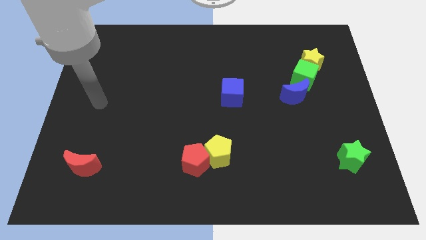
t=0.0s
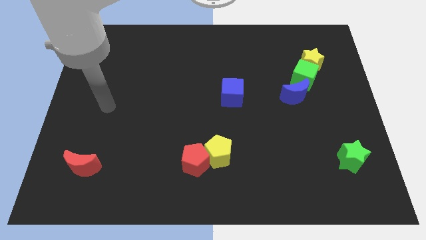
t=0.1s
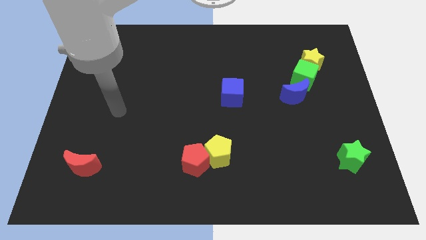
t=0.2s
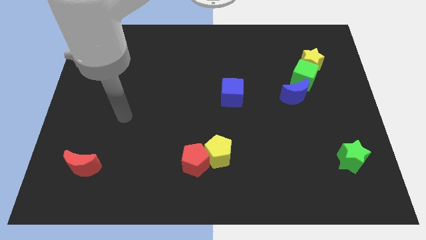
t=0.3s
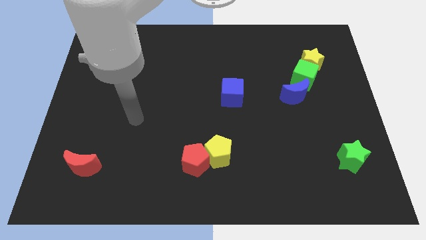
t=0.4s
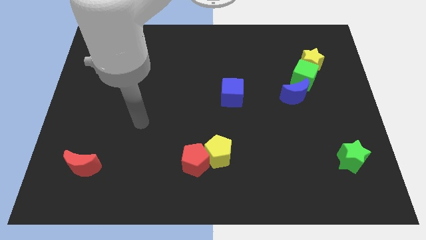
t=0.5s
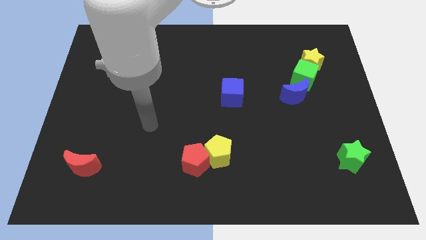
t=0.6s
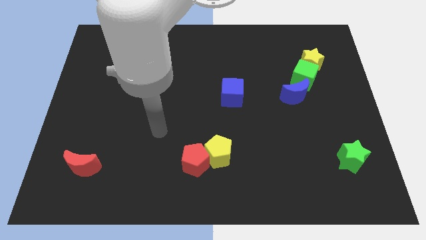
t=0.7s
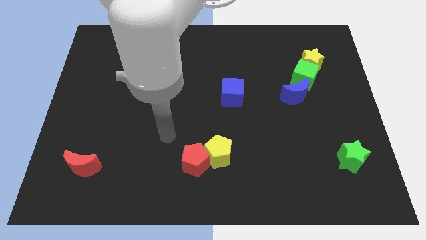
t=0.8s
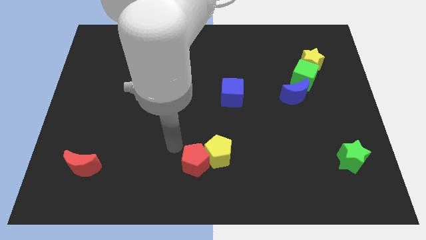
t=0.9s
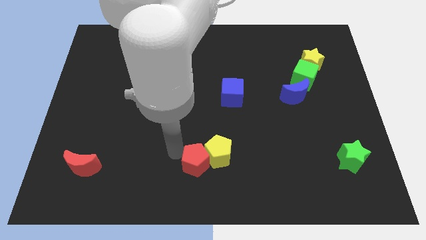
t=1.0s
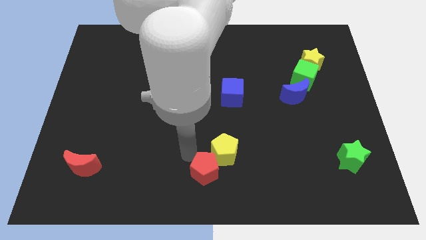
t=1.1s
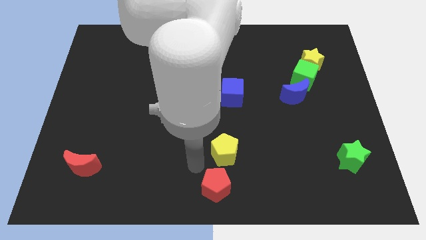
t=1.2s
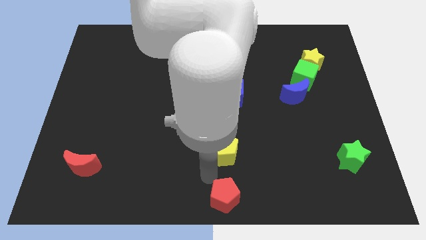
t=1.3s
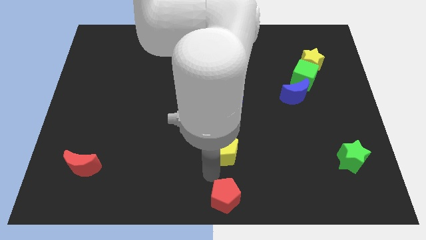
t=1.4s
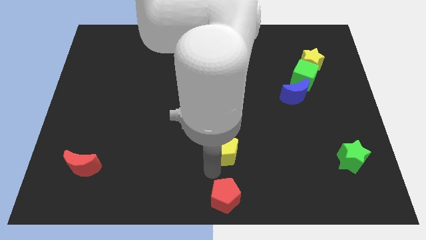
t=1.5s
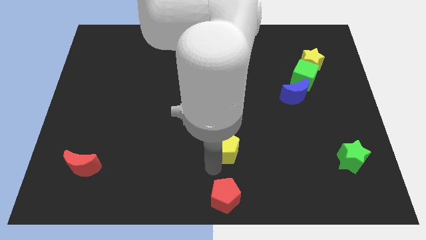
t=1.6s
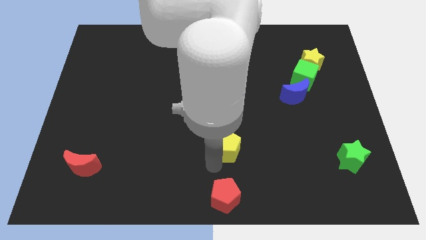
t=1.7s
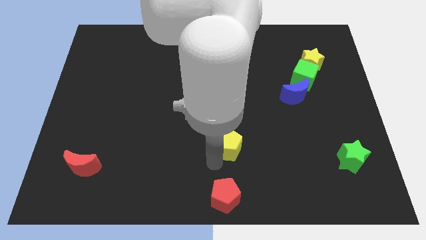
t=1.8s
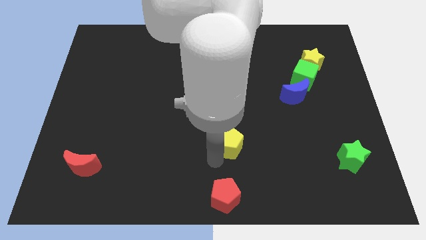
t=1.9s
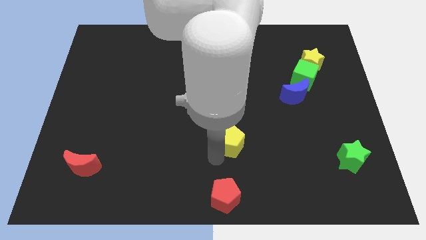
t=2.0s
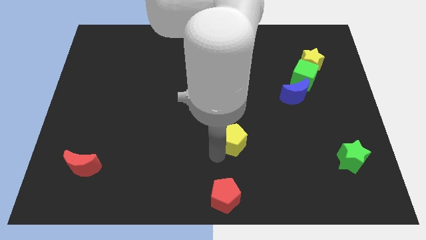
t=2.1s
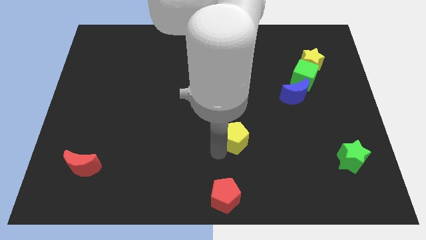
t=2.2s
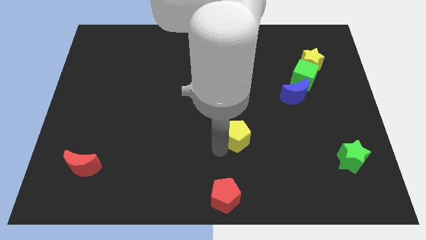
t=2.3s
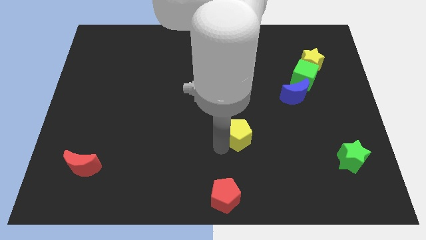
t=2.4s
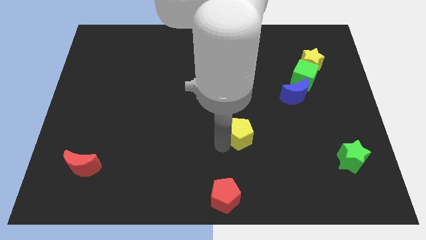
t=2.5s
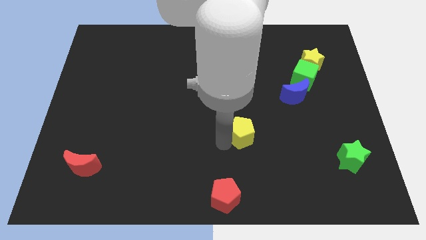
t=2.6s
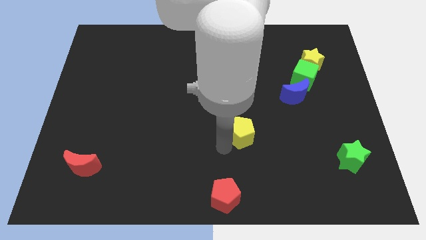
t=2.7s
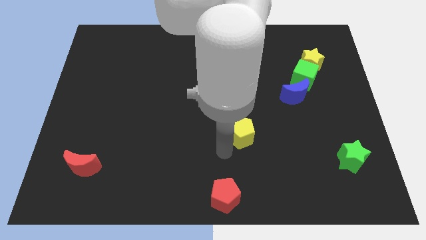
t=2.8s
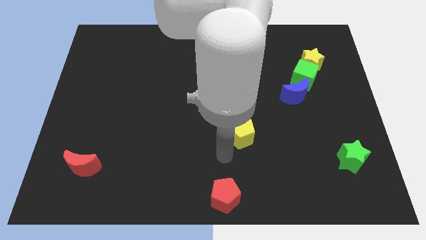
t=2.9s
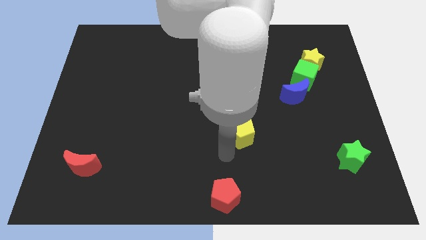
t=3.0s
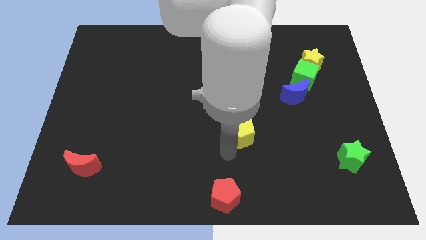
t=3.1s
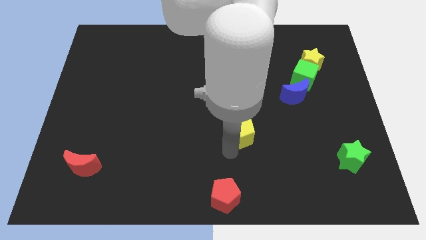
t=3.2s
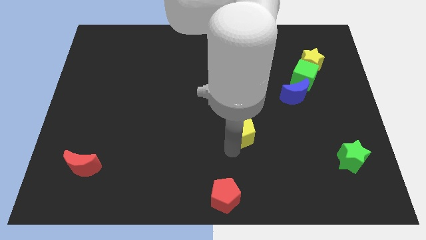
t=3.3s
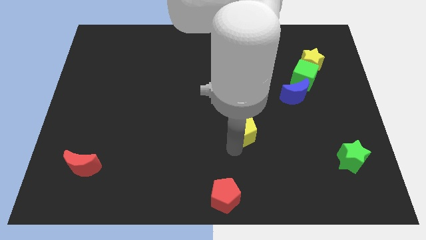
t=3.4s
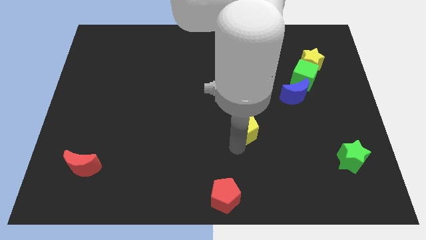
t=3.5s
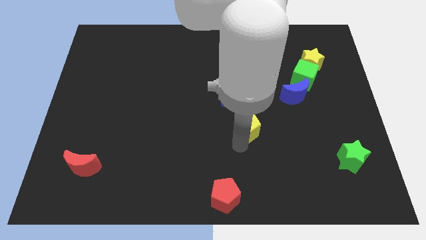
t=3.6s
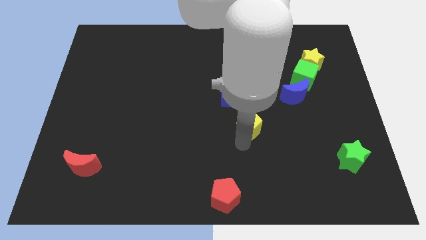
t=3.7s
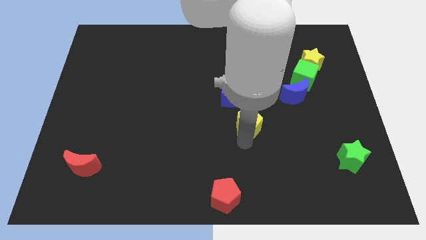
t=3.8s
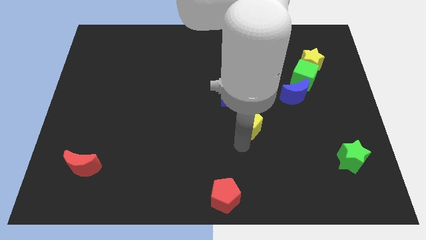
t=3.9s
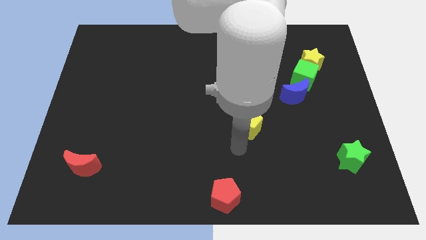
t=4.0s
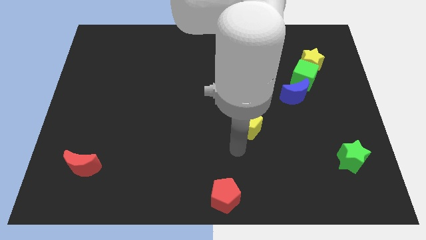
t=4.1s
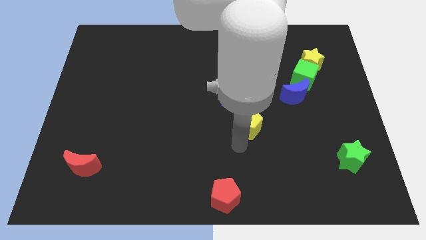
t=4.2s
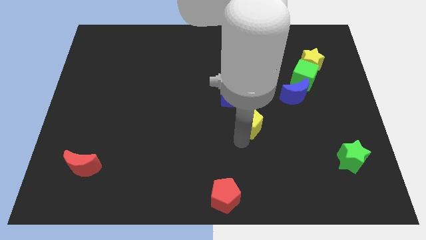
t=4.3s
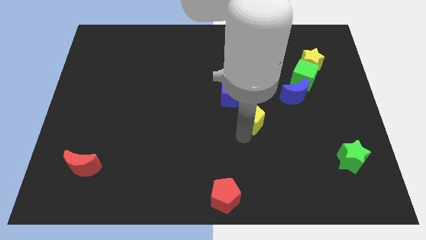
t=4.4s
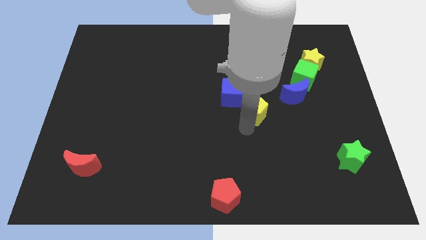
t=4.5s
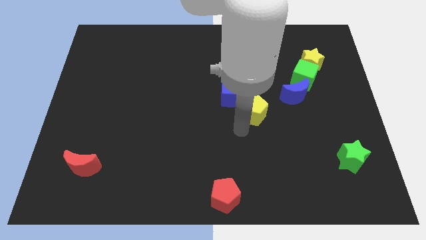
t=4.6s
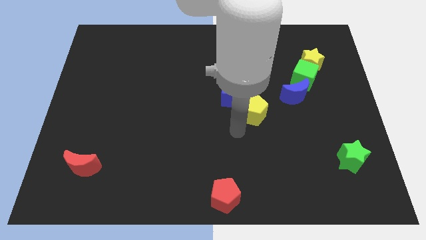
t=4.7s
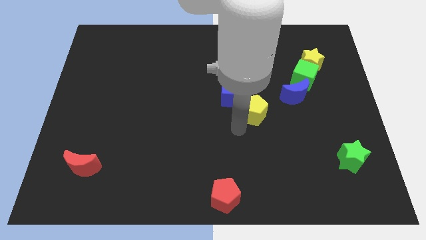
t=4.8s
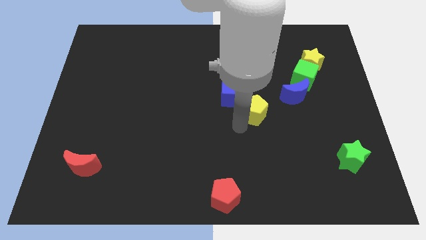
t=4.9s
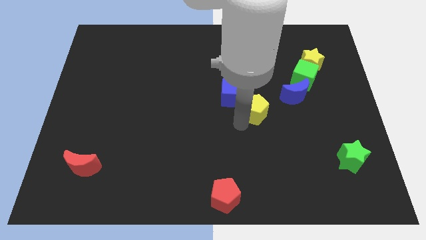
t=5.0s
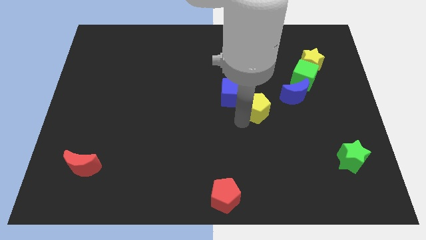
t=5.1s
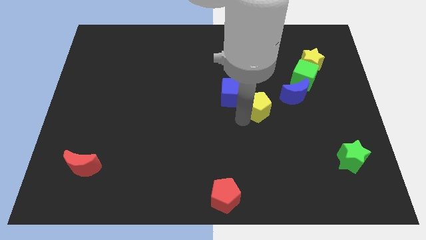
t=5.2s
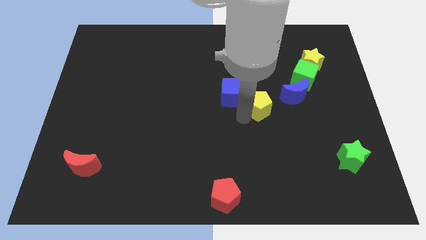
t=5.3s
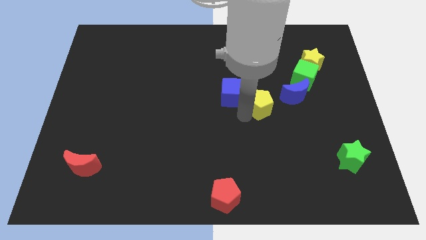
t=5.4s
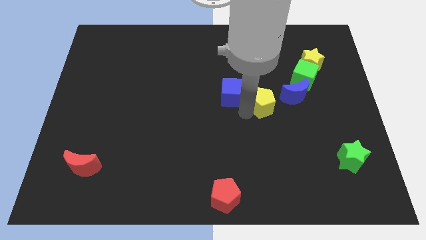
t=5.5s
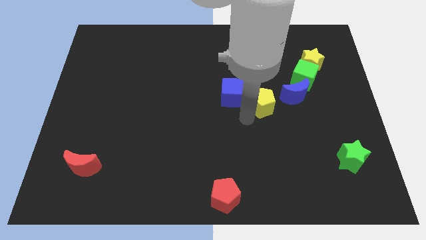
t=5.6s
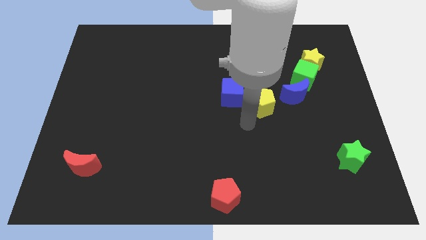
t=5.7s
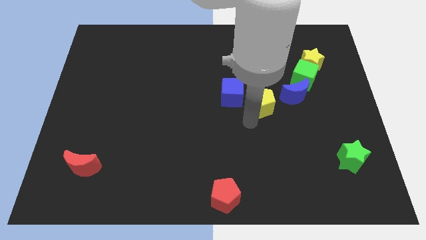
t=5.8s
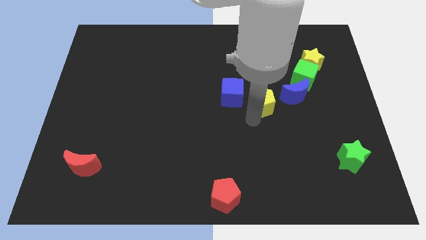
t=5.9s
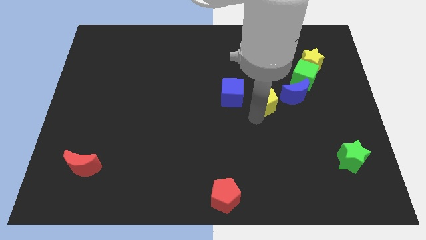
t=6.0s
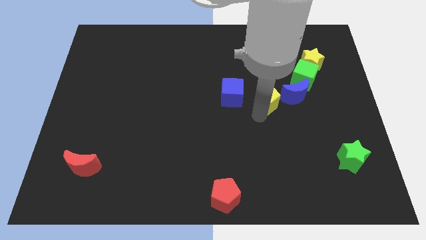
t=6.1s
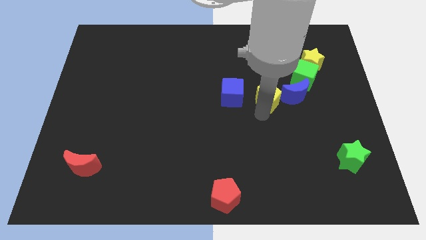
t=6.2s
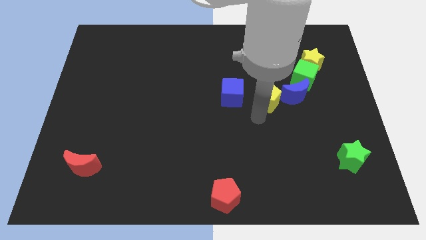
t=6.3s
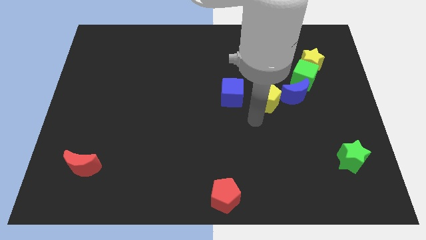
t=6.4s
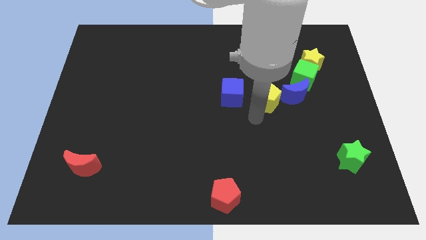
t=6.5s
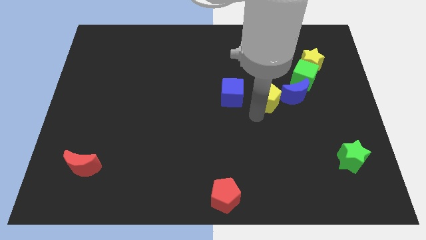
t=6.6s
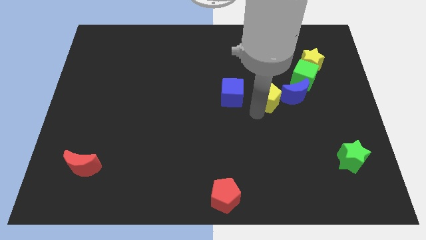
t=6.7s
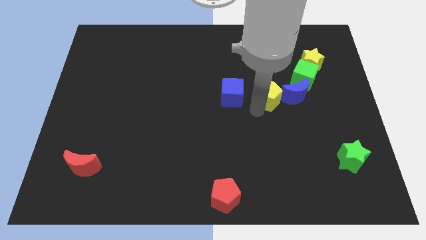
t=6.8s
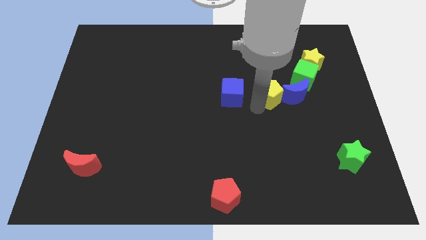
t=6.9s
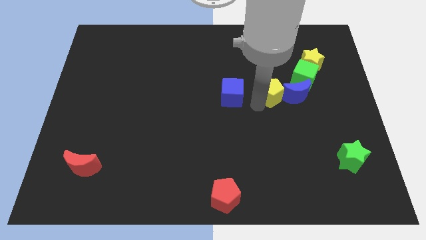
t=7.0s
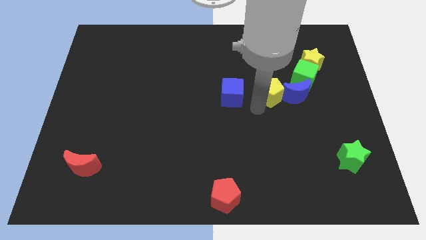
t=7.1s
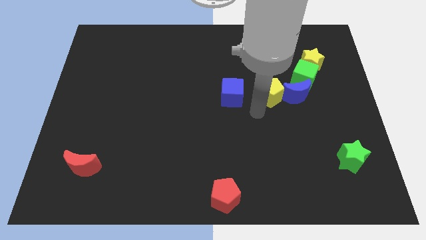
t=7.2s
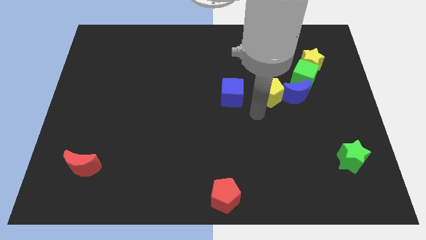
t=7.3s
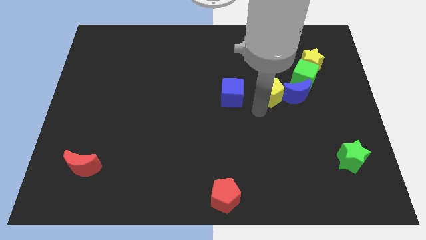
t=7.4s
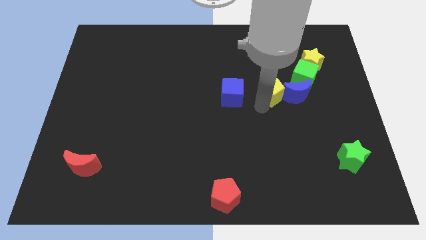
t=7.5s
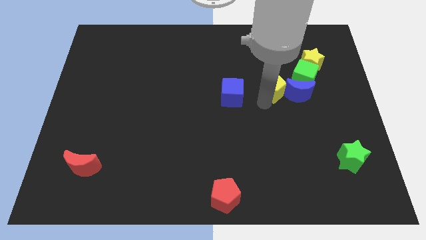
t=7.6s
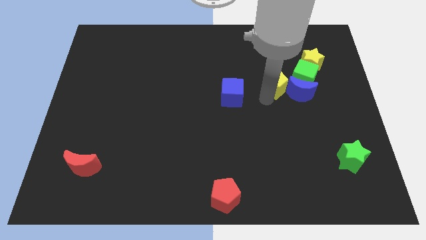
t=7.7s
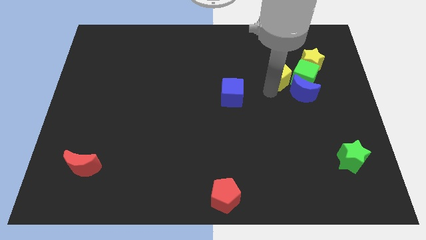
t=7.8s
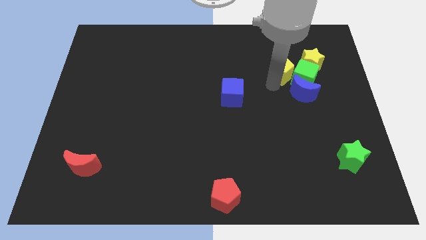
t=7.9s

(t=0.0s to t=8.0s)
slide the yellow pentagon to the top of the blue moon
